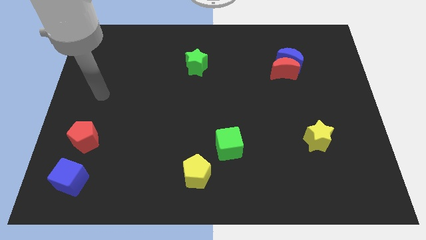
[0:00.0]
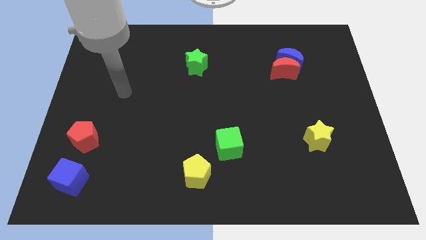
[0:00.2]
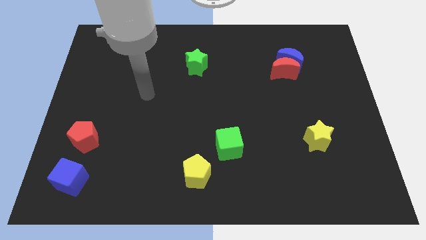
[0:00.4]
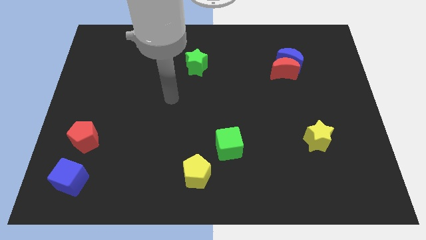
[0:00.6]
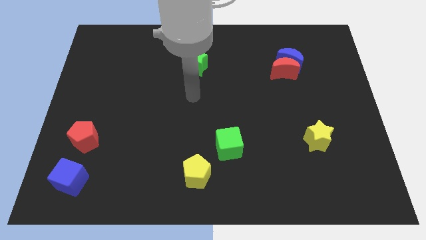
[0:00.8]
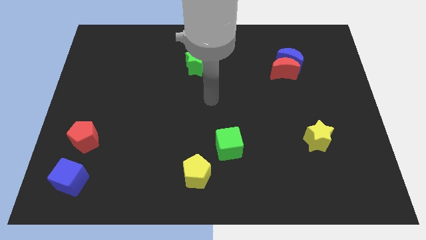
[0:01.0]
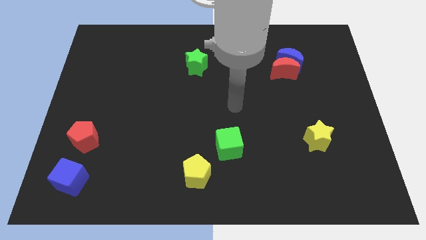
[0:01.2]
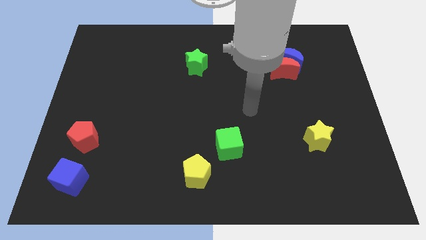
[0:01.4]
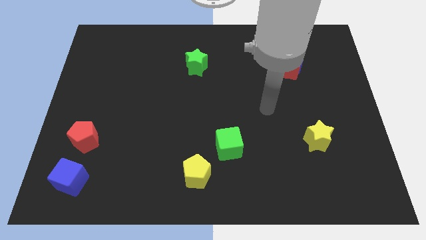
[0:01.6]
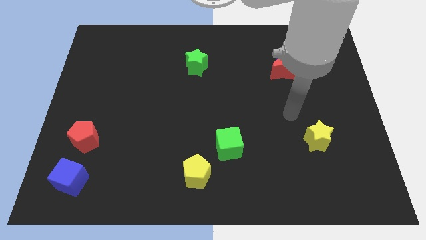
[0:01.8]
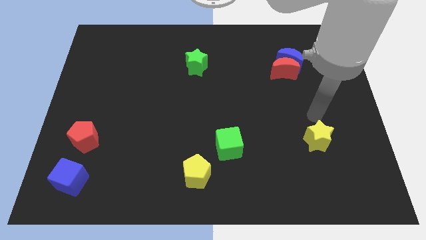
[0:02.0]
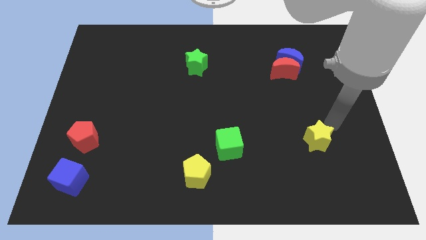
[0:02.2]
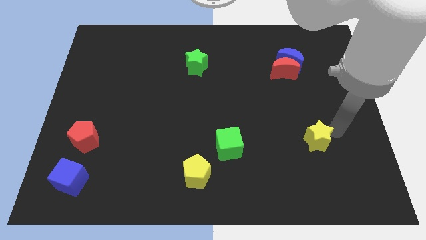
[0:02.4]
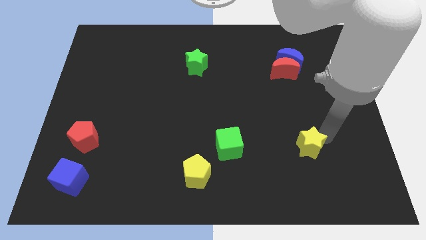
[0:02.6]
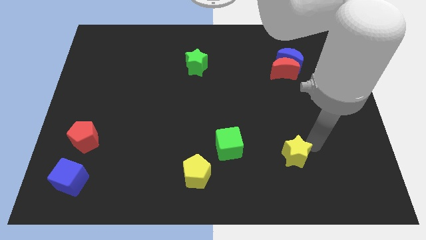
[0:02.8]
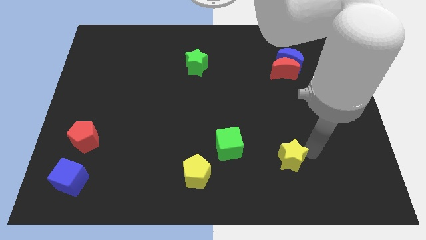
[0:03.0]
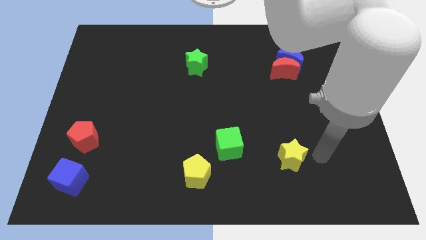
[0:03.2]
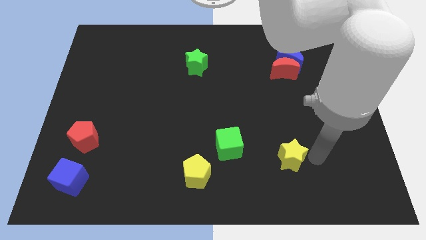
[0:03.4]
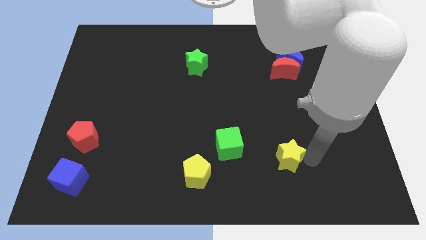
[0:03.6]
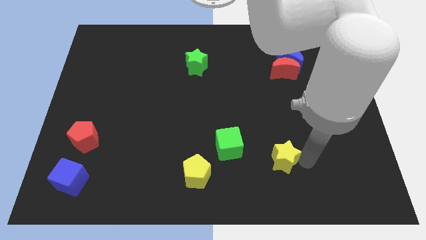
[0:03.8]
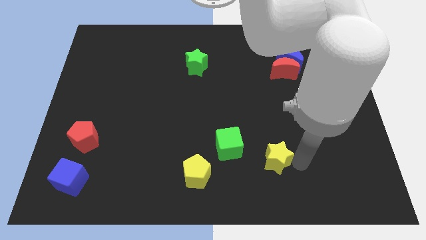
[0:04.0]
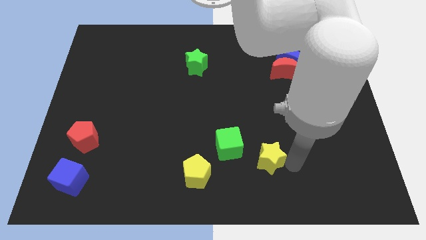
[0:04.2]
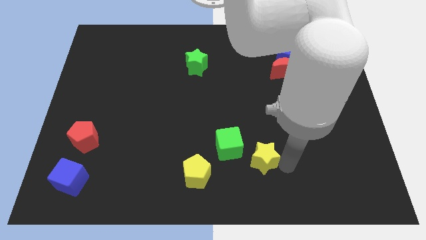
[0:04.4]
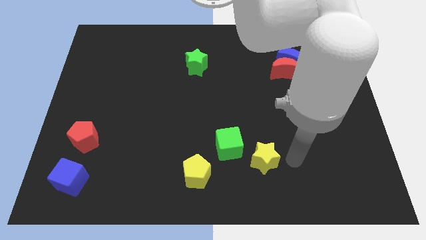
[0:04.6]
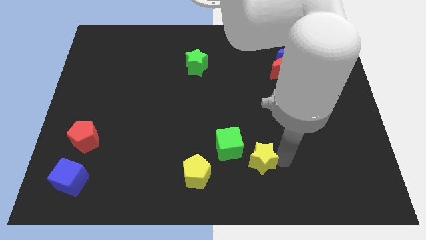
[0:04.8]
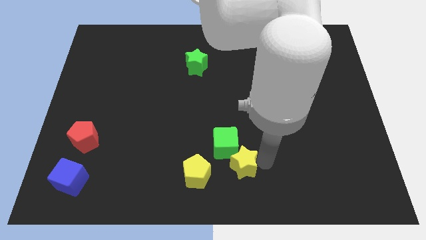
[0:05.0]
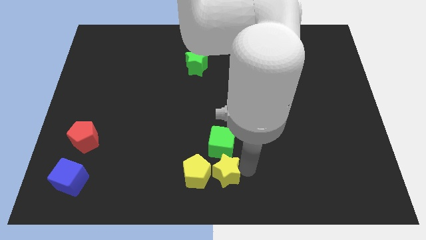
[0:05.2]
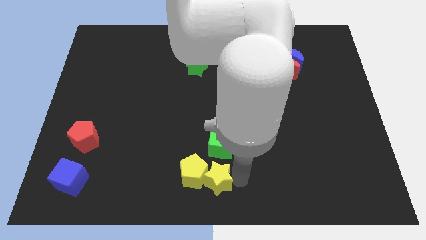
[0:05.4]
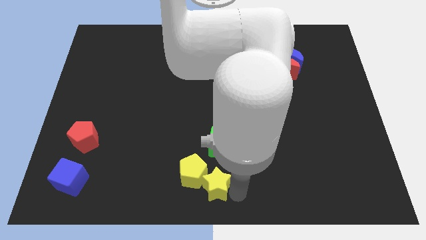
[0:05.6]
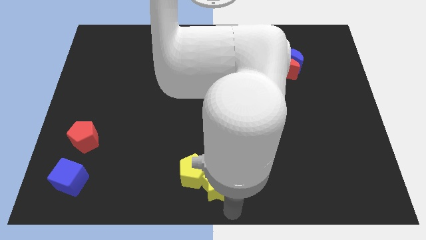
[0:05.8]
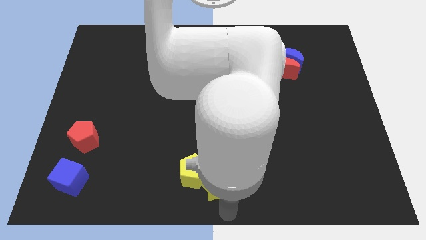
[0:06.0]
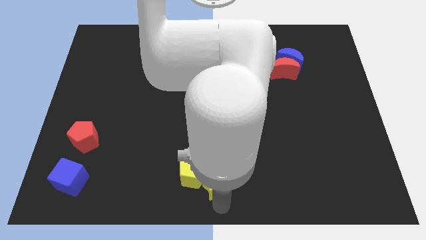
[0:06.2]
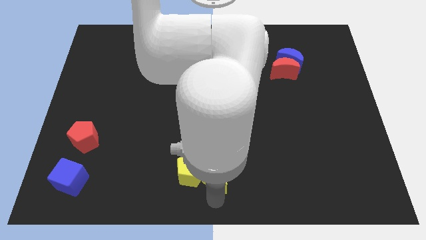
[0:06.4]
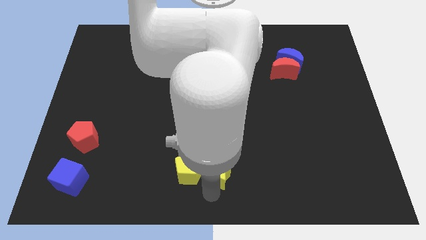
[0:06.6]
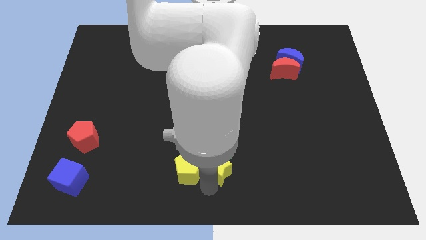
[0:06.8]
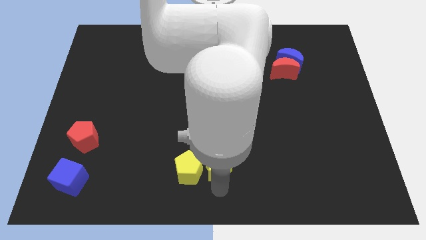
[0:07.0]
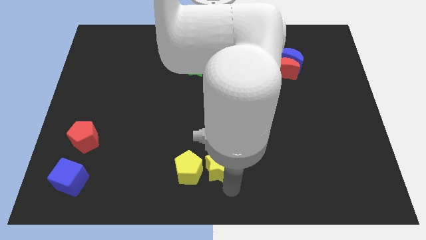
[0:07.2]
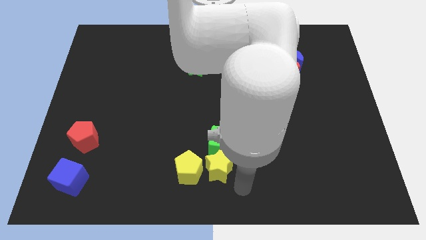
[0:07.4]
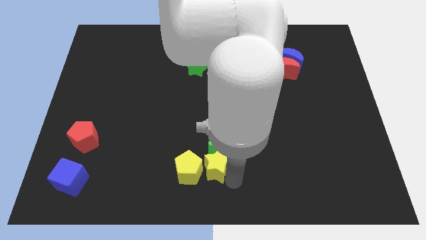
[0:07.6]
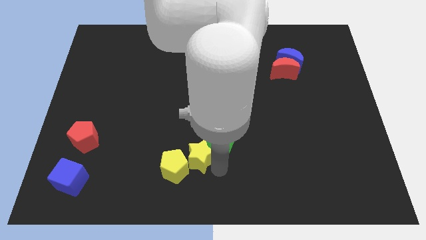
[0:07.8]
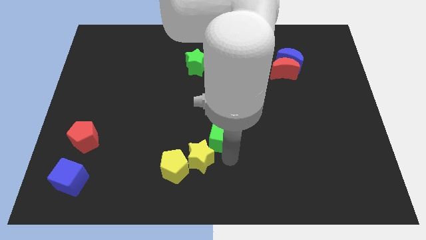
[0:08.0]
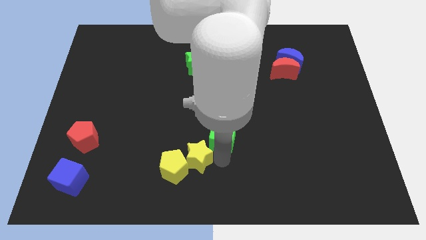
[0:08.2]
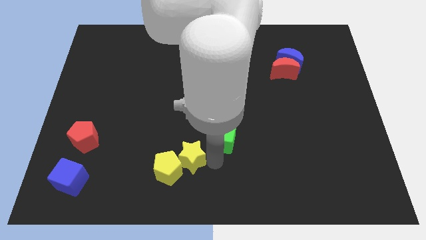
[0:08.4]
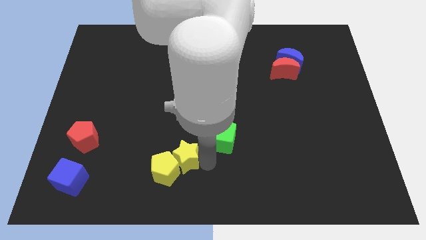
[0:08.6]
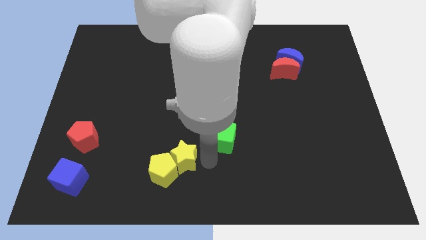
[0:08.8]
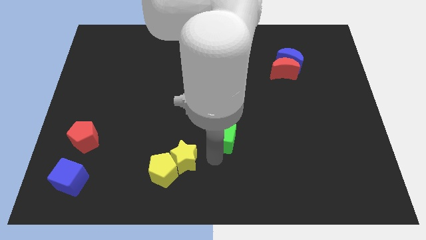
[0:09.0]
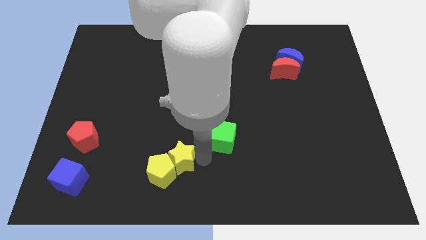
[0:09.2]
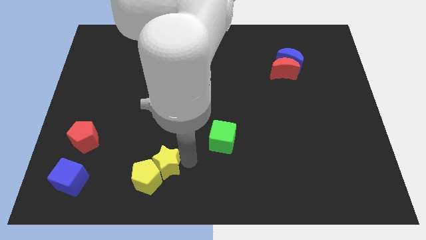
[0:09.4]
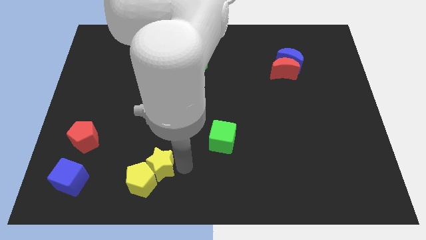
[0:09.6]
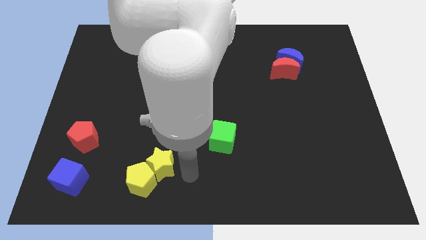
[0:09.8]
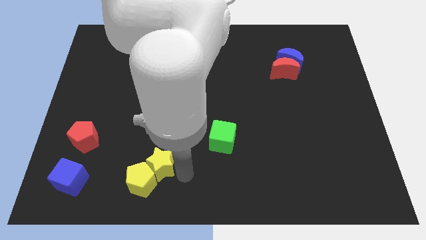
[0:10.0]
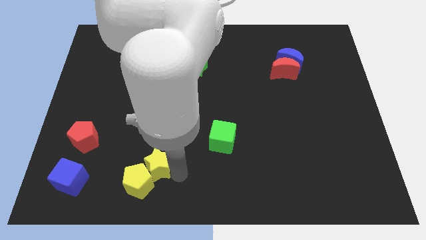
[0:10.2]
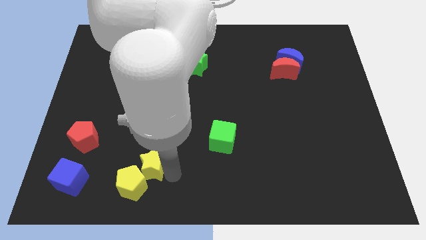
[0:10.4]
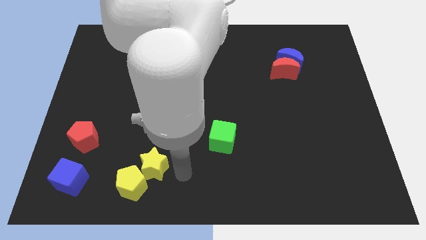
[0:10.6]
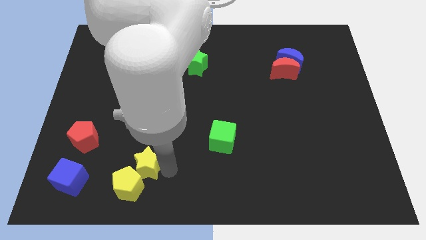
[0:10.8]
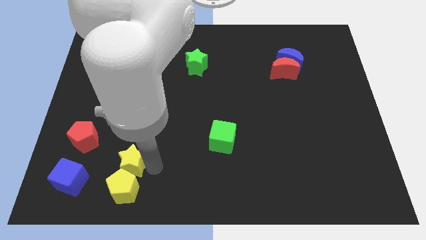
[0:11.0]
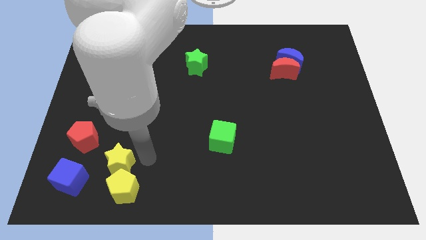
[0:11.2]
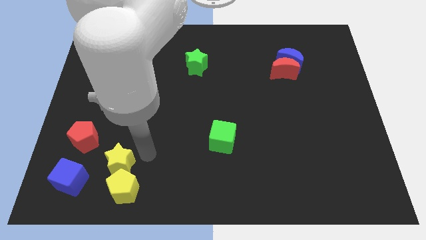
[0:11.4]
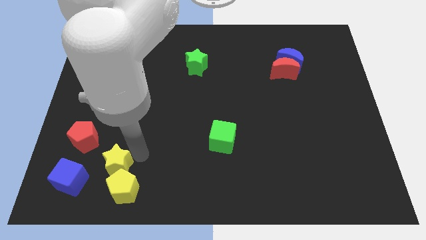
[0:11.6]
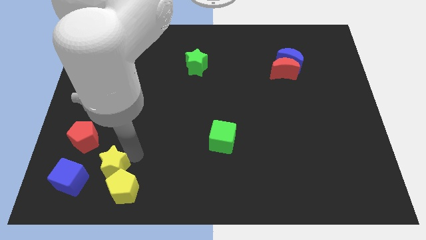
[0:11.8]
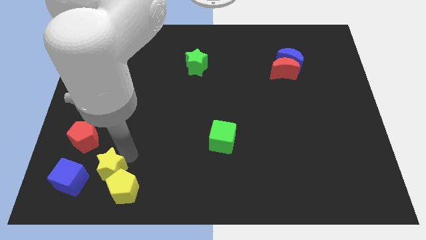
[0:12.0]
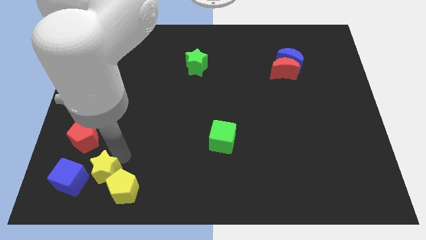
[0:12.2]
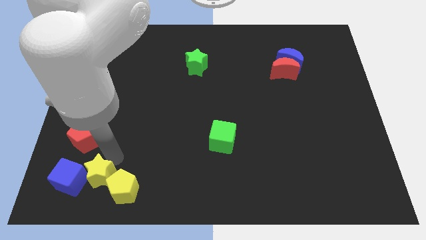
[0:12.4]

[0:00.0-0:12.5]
put the yellow star next to the blue cube
